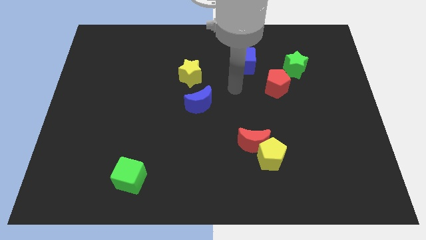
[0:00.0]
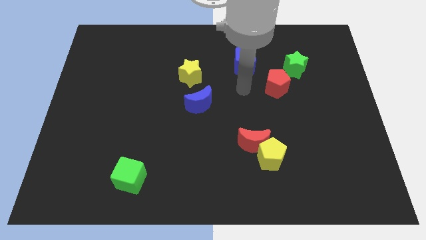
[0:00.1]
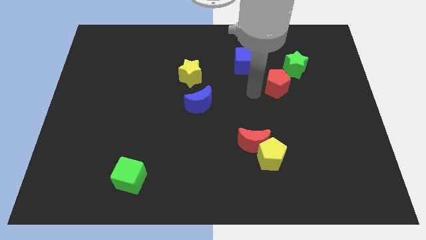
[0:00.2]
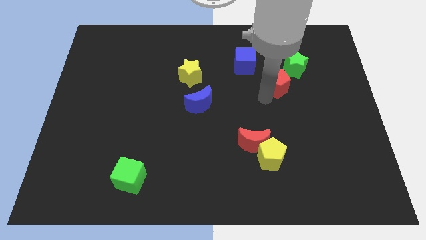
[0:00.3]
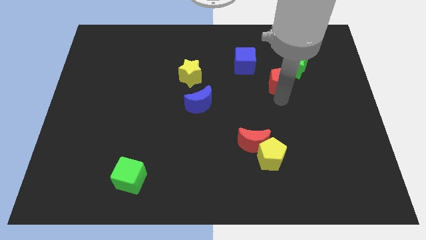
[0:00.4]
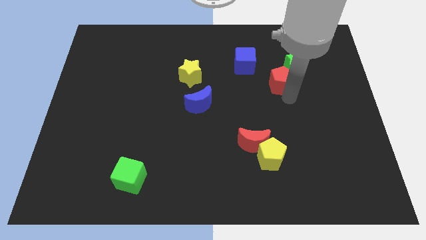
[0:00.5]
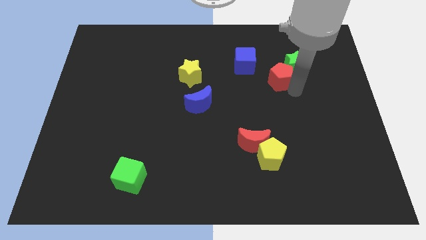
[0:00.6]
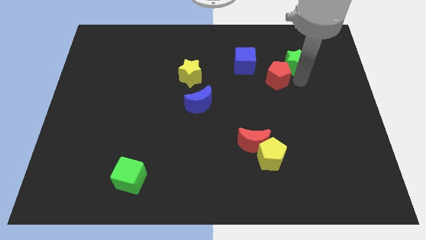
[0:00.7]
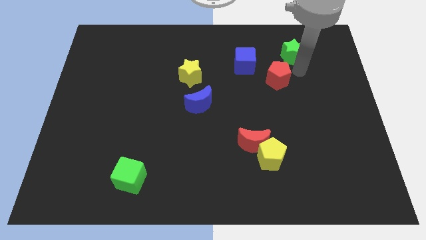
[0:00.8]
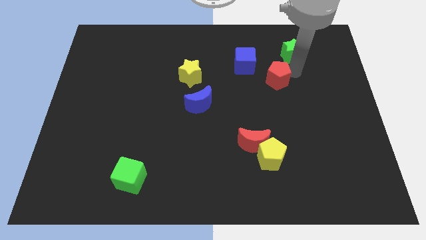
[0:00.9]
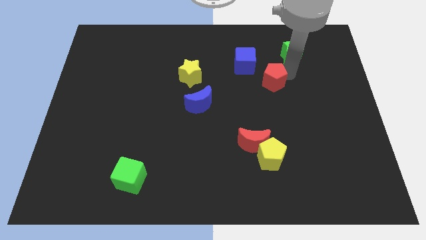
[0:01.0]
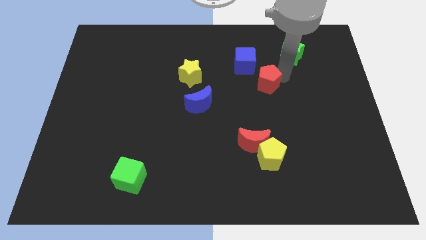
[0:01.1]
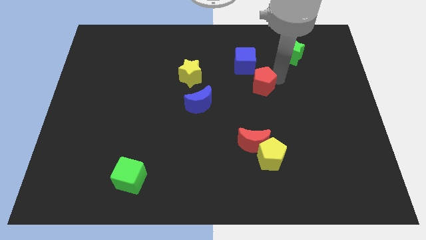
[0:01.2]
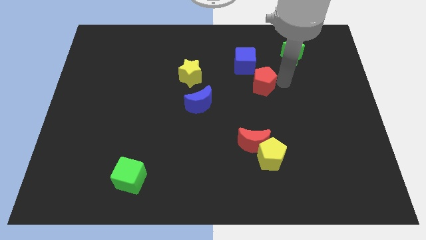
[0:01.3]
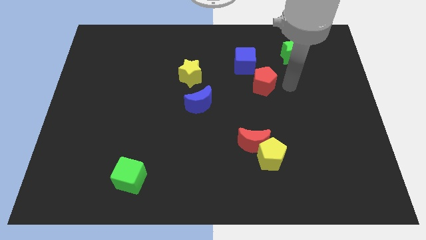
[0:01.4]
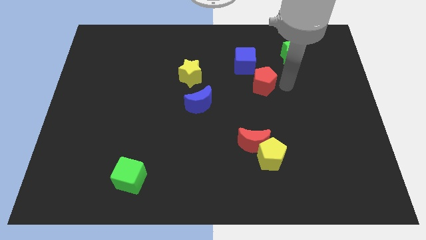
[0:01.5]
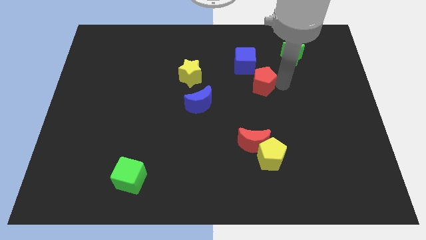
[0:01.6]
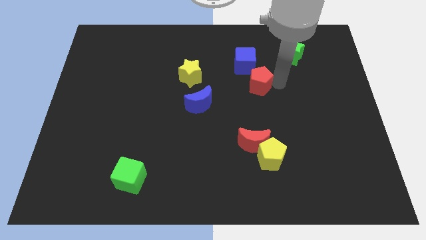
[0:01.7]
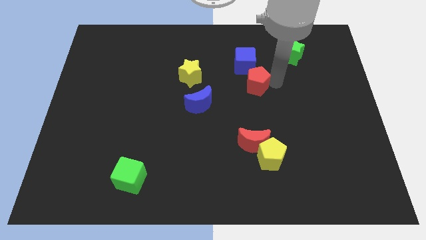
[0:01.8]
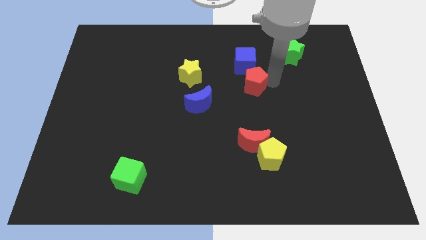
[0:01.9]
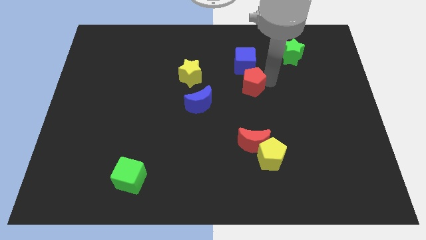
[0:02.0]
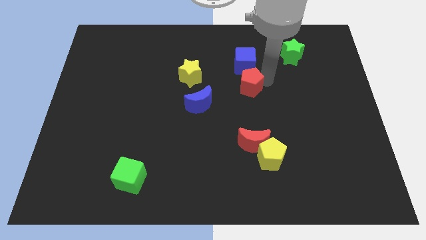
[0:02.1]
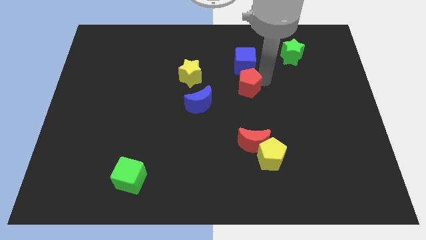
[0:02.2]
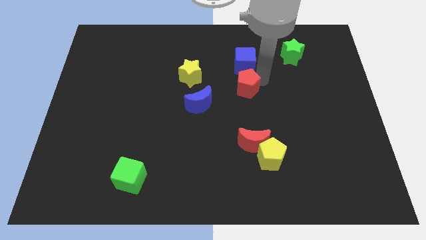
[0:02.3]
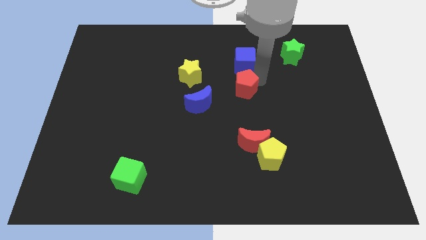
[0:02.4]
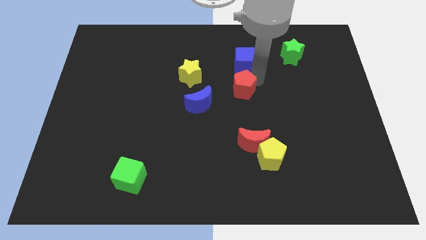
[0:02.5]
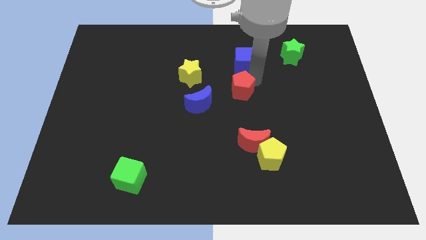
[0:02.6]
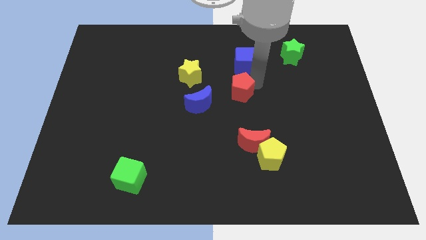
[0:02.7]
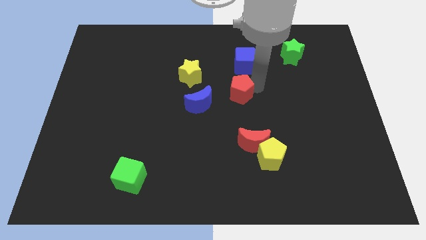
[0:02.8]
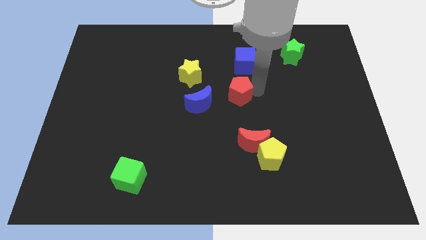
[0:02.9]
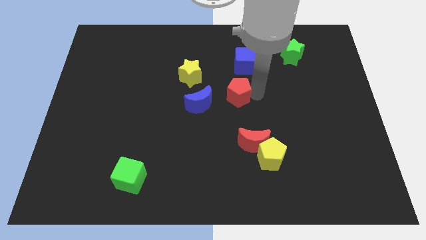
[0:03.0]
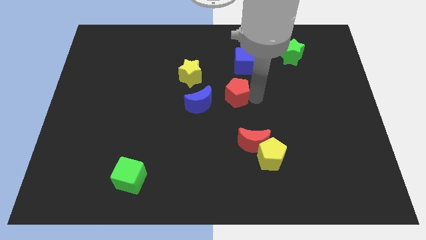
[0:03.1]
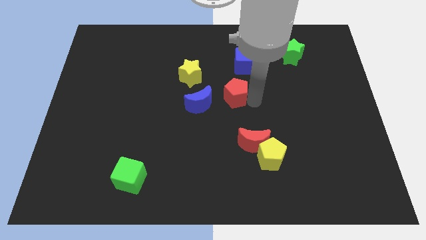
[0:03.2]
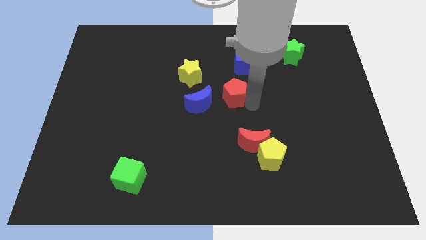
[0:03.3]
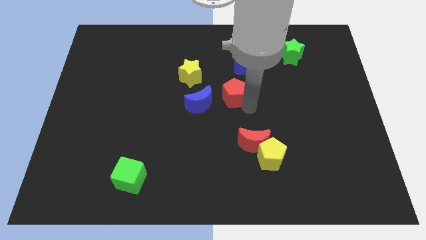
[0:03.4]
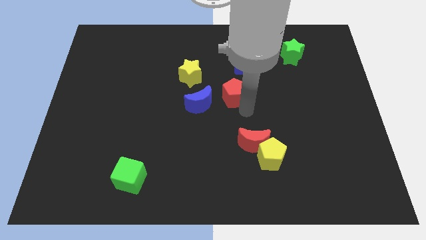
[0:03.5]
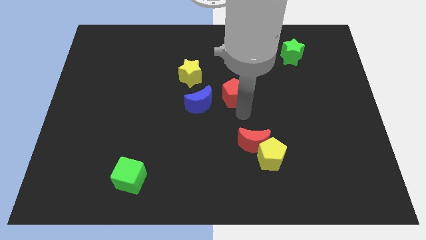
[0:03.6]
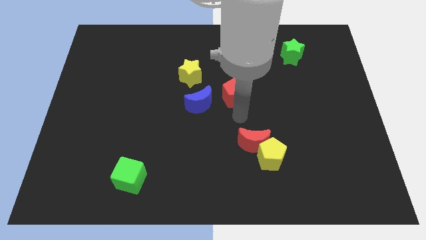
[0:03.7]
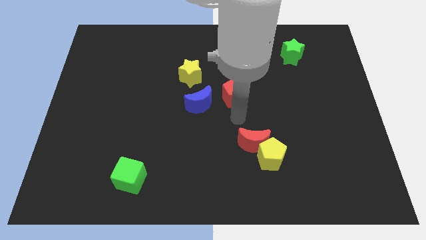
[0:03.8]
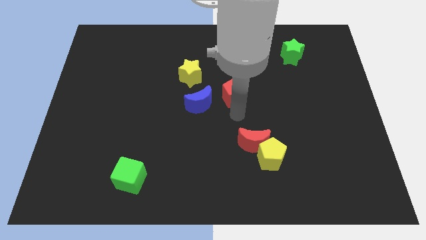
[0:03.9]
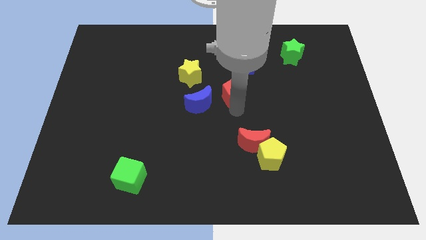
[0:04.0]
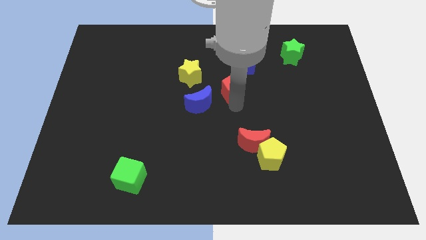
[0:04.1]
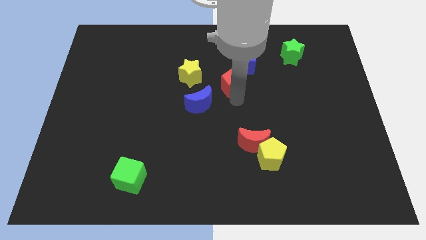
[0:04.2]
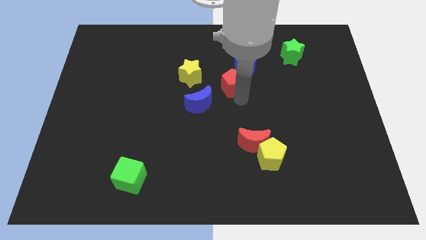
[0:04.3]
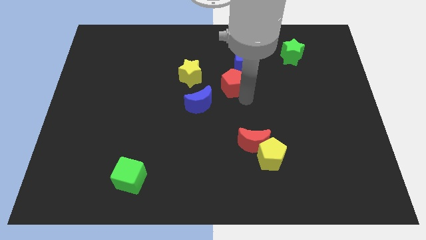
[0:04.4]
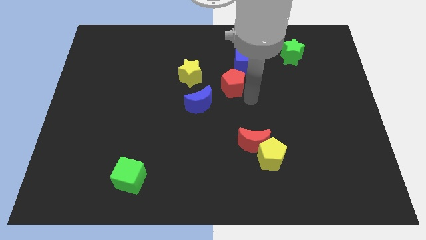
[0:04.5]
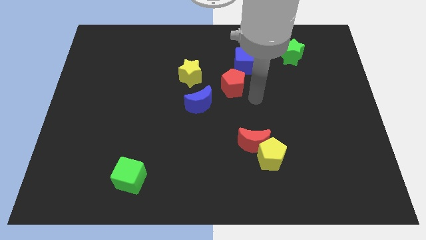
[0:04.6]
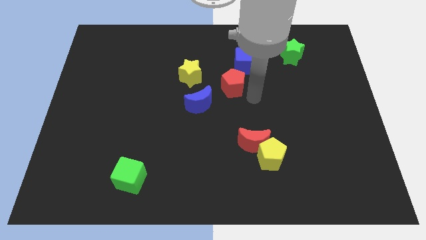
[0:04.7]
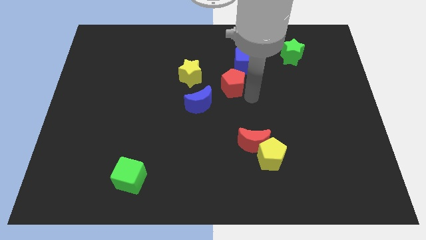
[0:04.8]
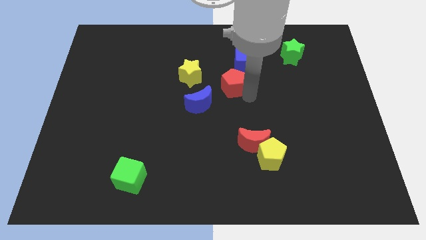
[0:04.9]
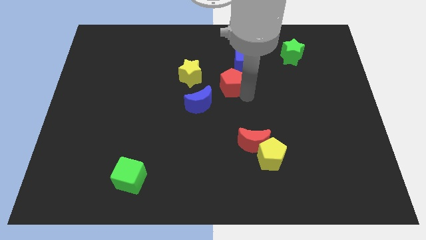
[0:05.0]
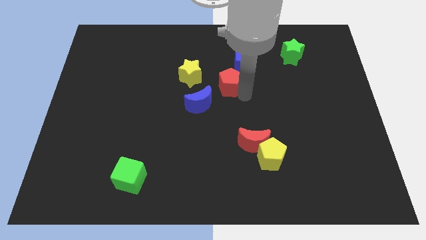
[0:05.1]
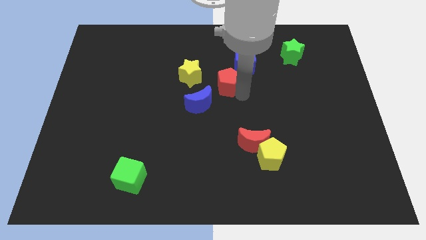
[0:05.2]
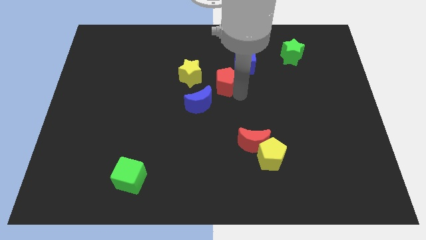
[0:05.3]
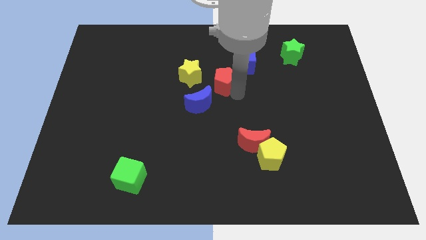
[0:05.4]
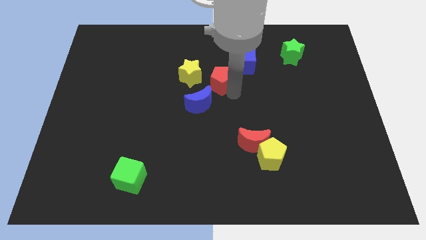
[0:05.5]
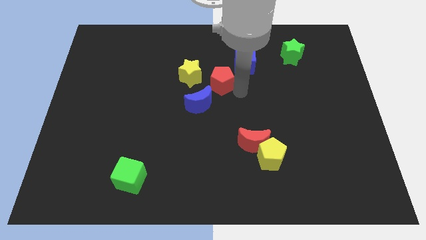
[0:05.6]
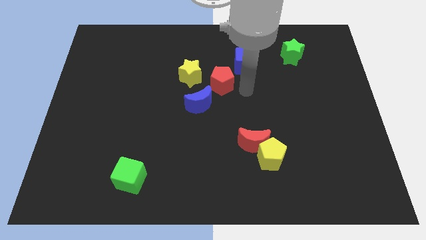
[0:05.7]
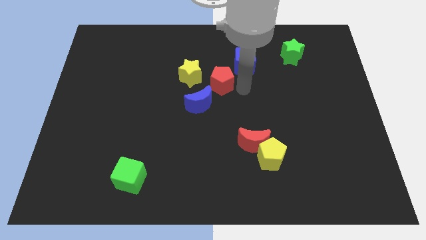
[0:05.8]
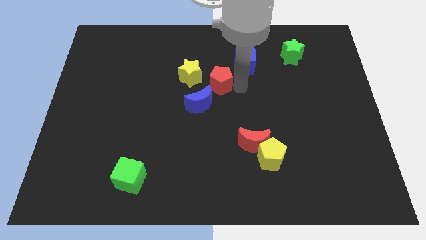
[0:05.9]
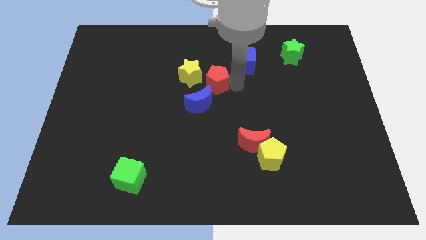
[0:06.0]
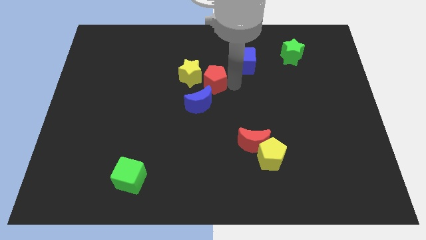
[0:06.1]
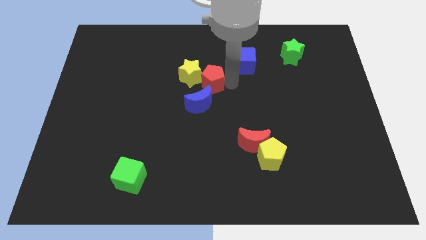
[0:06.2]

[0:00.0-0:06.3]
slide the red pentagon towards the yellow star

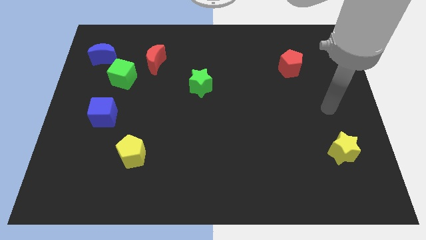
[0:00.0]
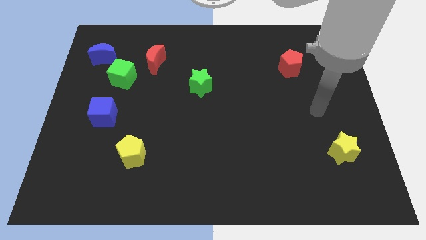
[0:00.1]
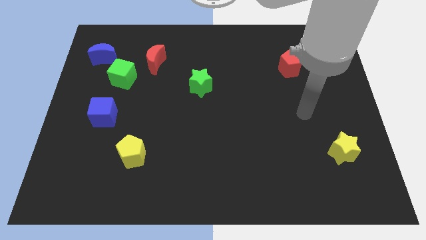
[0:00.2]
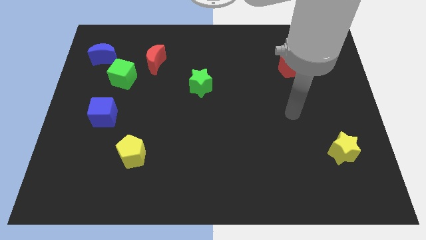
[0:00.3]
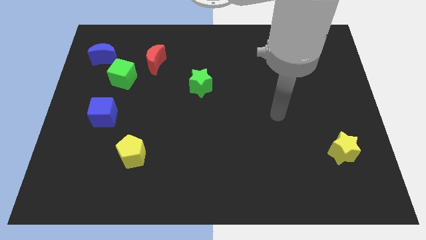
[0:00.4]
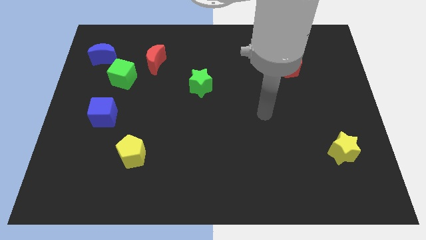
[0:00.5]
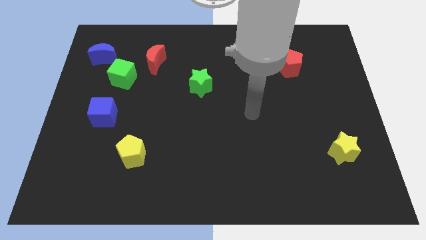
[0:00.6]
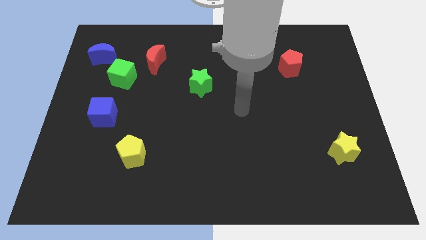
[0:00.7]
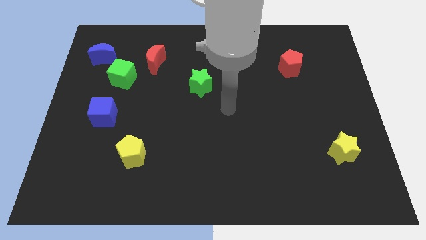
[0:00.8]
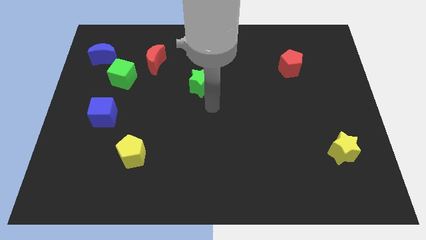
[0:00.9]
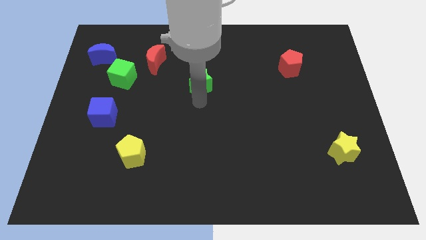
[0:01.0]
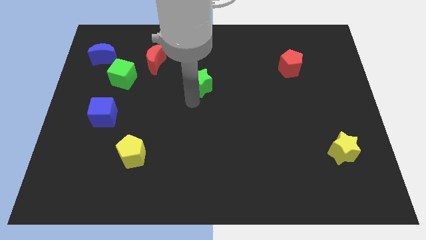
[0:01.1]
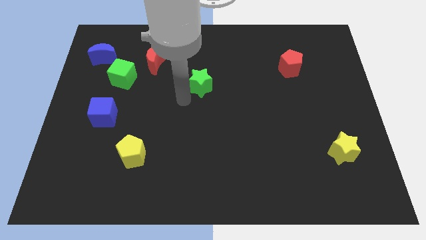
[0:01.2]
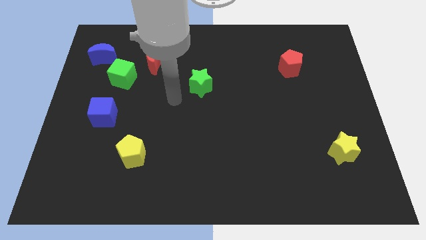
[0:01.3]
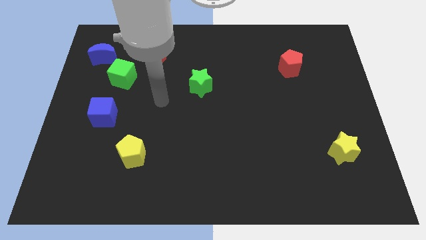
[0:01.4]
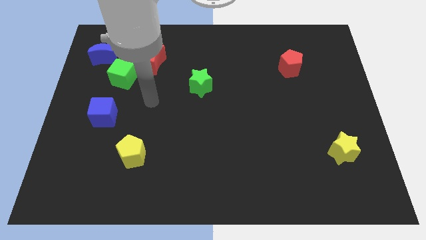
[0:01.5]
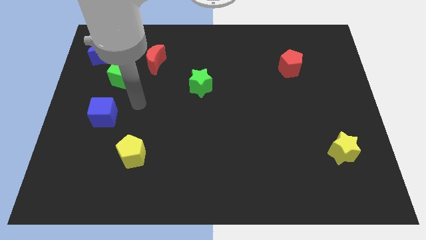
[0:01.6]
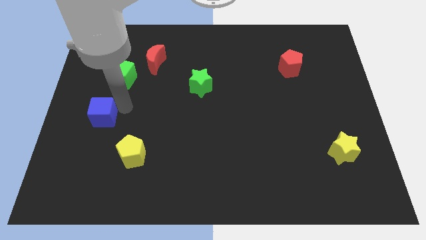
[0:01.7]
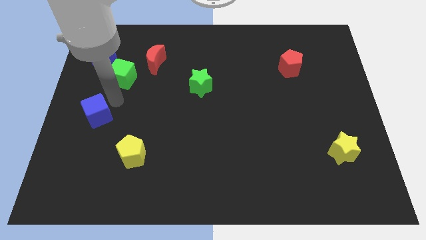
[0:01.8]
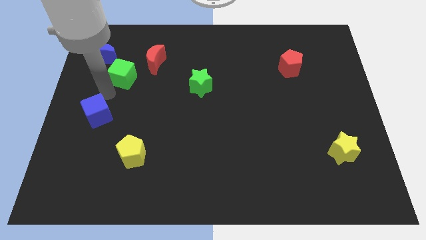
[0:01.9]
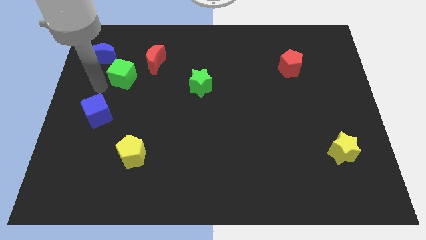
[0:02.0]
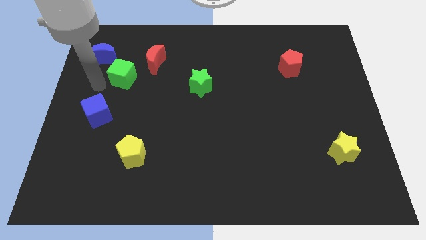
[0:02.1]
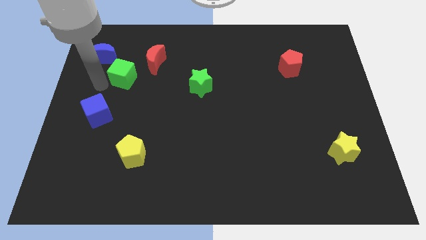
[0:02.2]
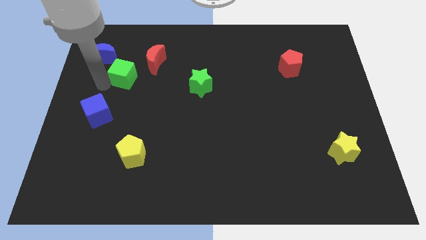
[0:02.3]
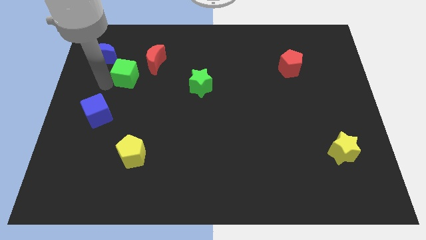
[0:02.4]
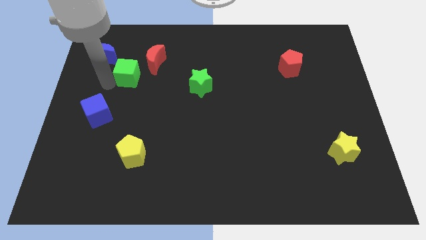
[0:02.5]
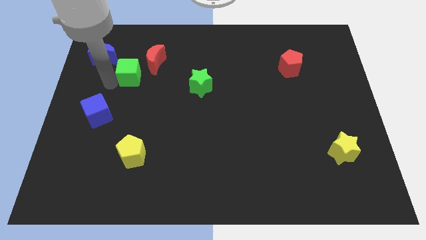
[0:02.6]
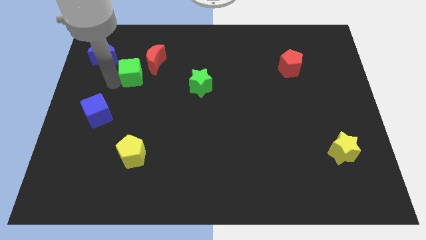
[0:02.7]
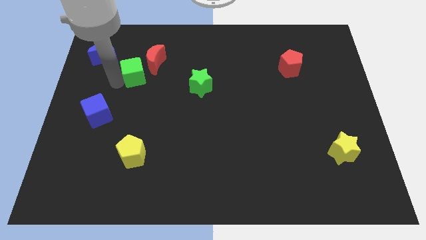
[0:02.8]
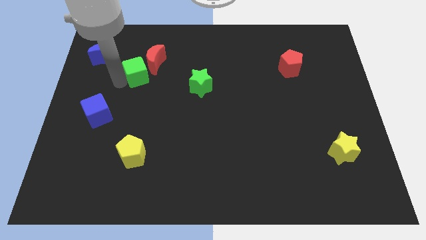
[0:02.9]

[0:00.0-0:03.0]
put the green cube next to the red moon
